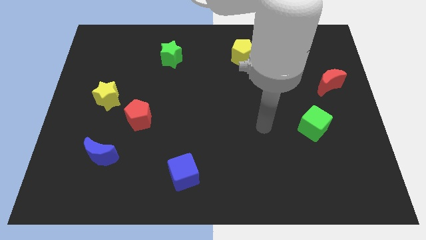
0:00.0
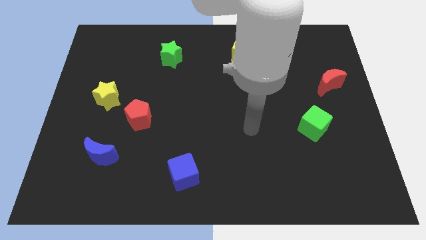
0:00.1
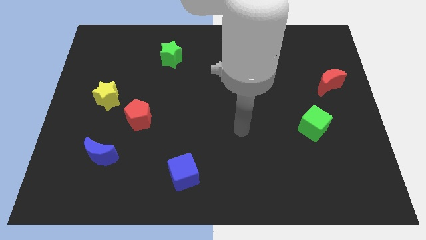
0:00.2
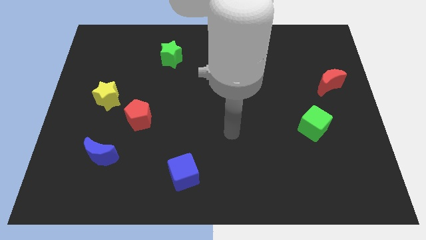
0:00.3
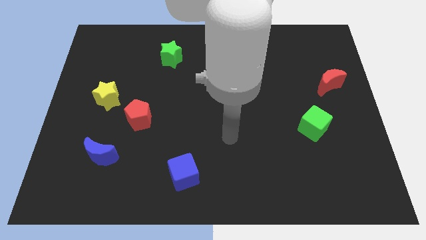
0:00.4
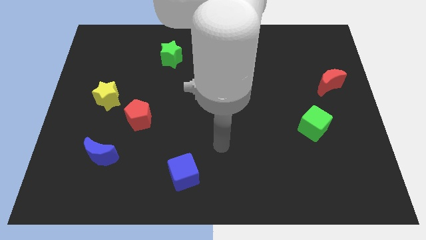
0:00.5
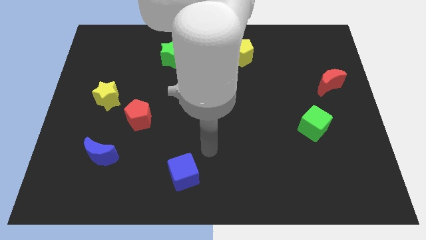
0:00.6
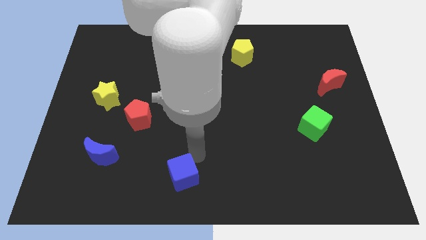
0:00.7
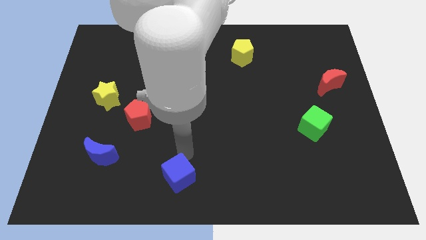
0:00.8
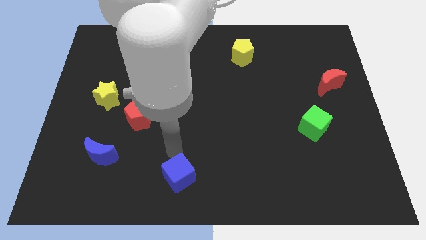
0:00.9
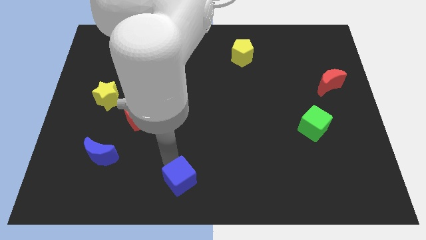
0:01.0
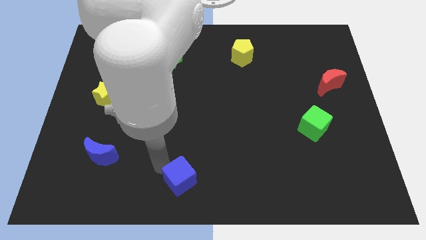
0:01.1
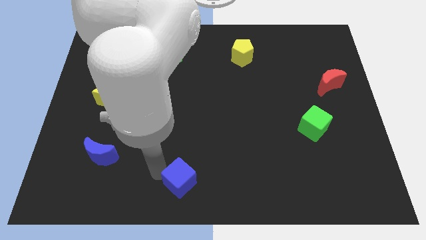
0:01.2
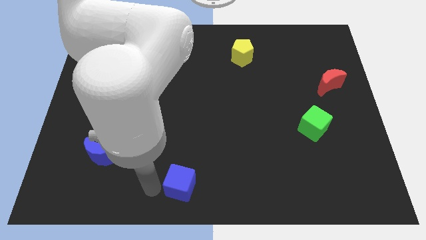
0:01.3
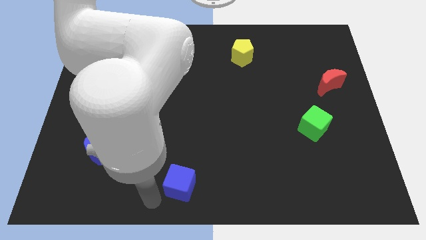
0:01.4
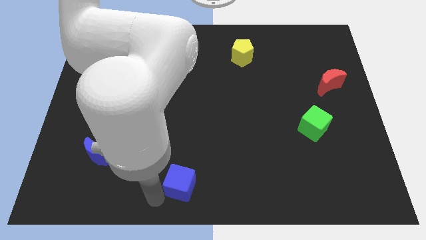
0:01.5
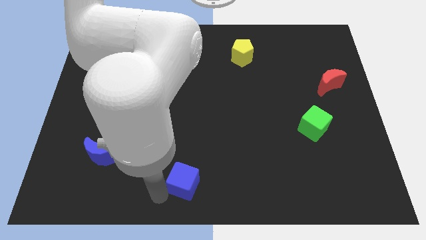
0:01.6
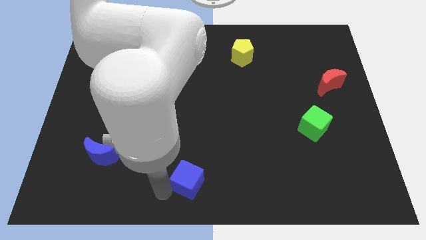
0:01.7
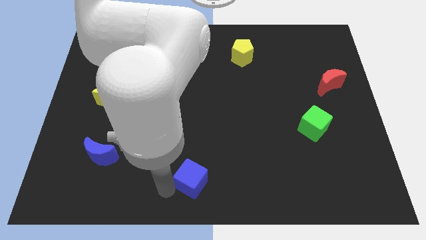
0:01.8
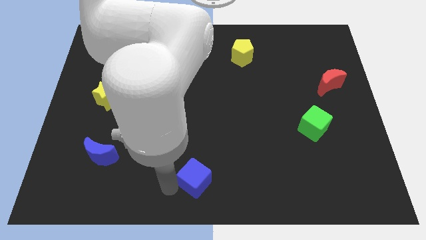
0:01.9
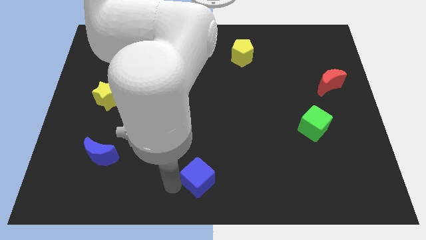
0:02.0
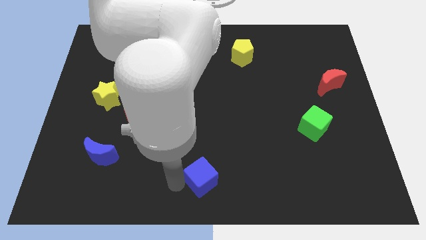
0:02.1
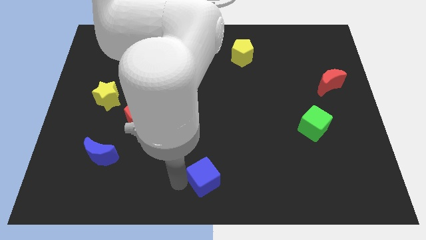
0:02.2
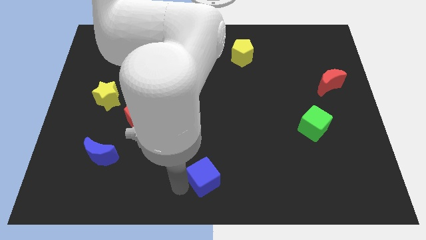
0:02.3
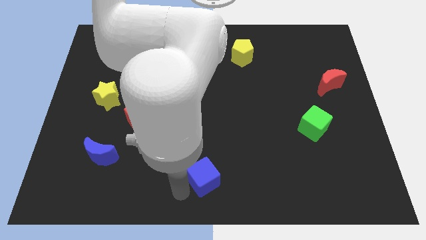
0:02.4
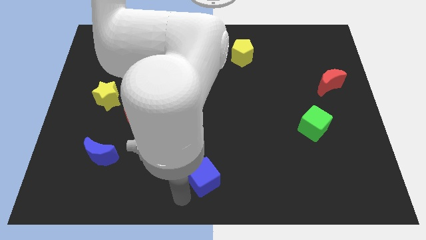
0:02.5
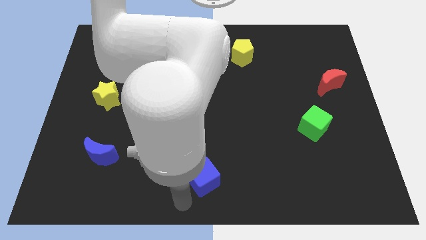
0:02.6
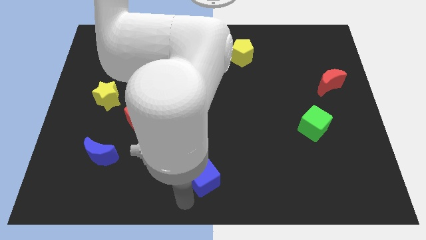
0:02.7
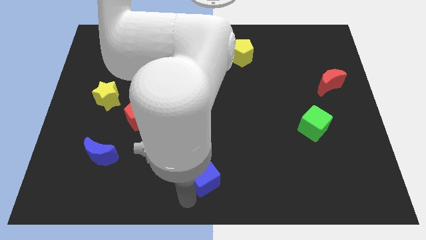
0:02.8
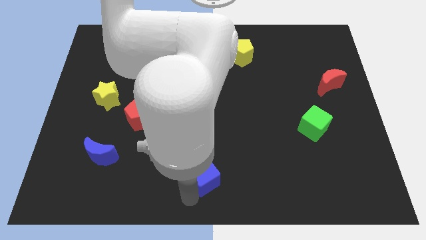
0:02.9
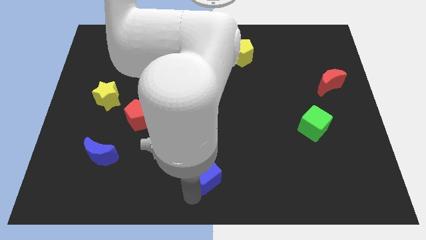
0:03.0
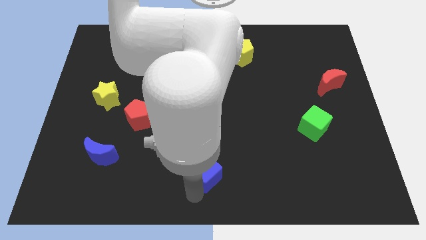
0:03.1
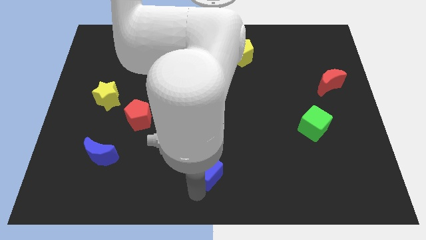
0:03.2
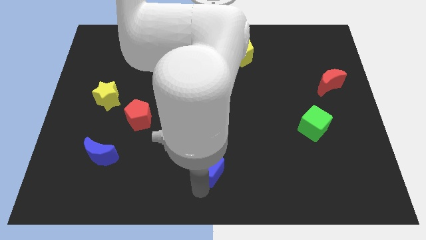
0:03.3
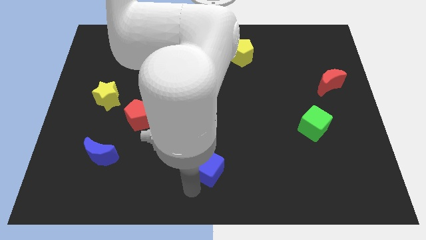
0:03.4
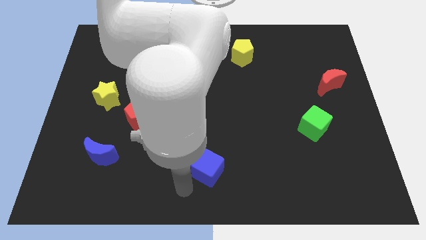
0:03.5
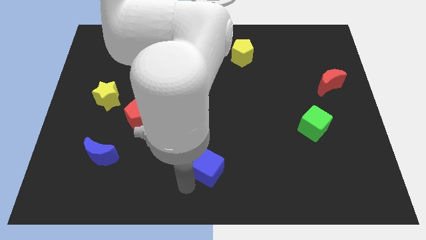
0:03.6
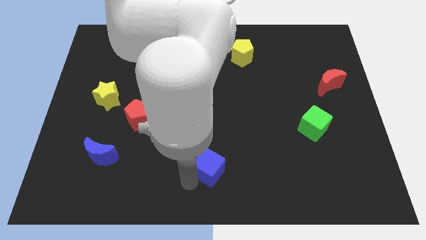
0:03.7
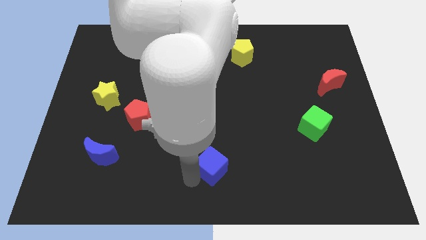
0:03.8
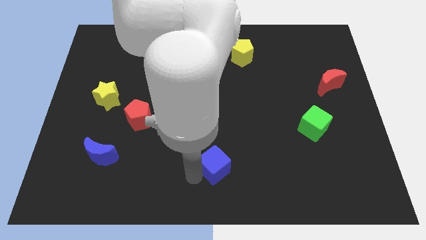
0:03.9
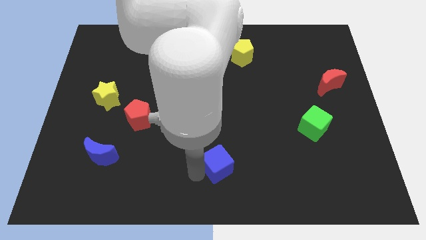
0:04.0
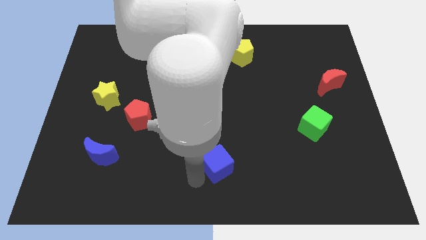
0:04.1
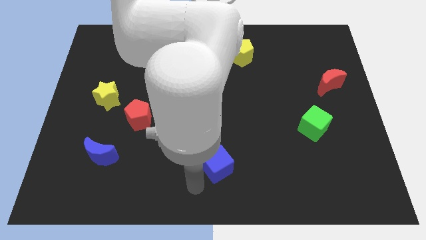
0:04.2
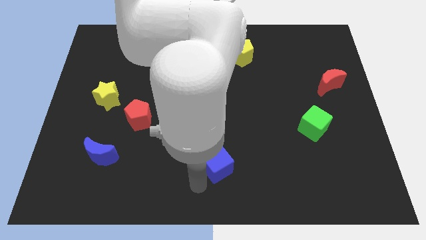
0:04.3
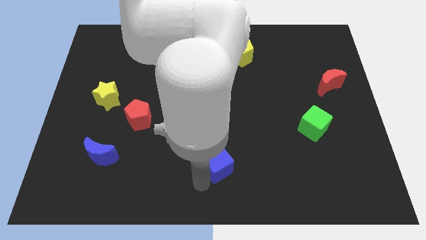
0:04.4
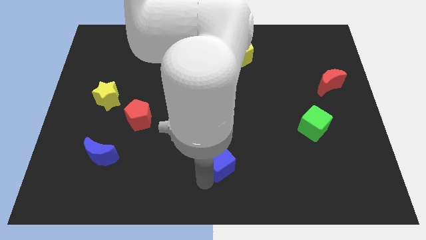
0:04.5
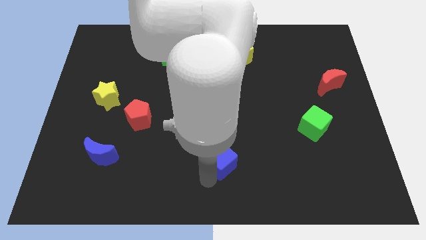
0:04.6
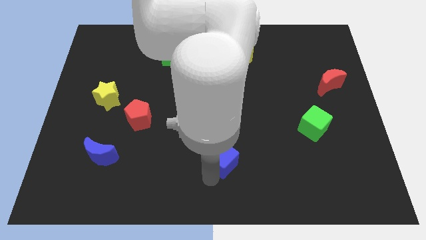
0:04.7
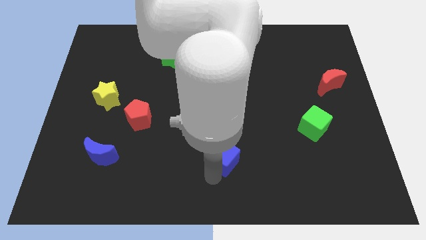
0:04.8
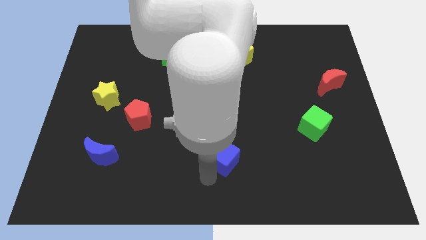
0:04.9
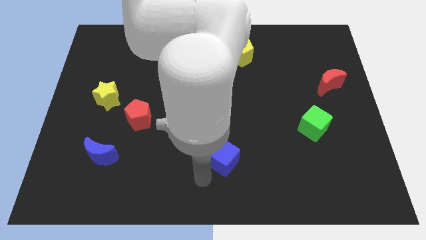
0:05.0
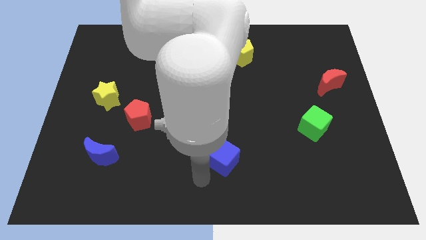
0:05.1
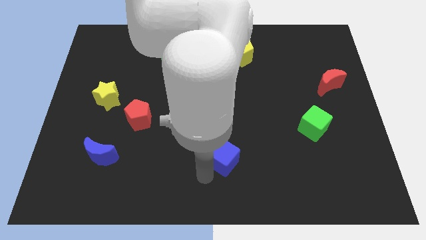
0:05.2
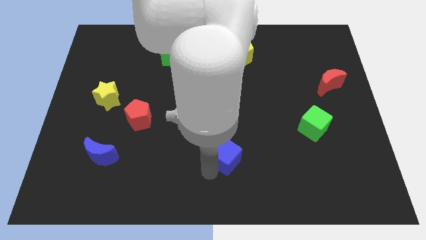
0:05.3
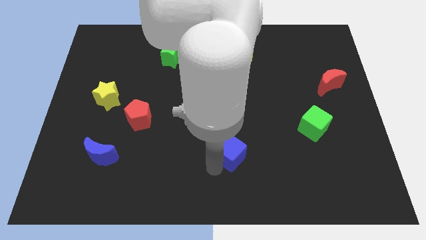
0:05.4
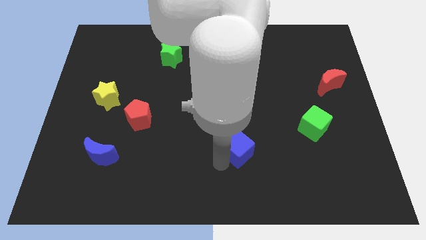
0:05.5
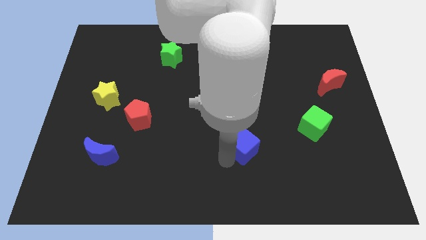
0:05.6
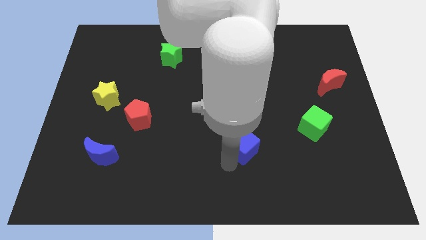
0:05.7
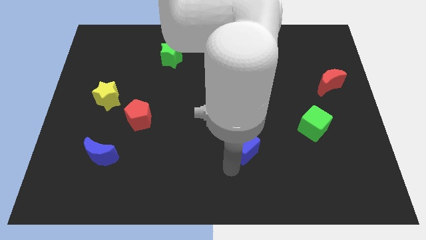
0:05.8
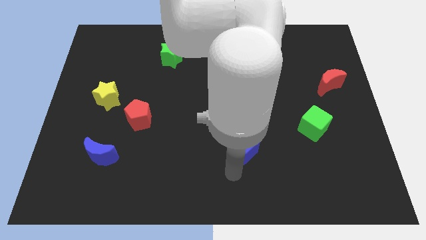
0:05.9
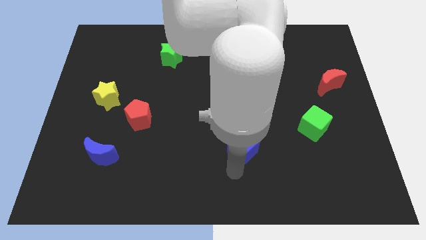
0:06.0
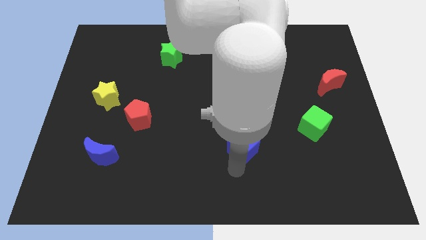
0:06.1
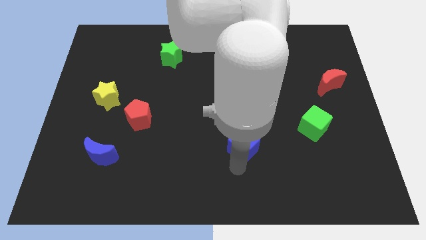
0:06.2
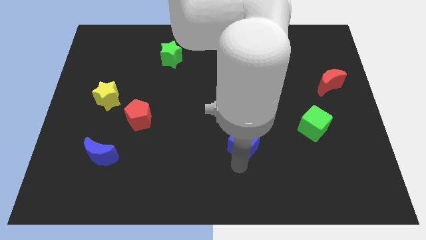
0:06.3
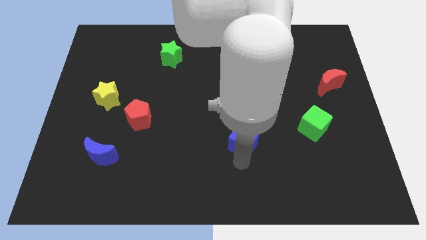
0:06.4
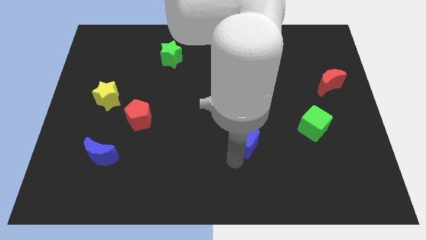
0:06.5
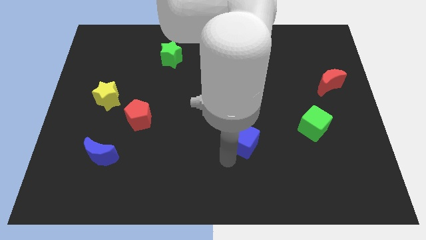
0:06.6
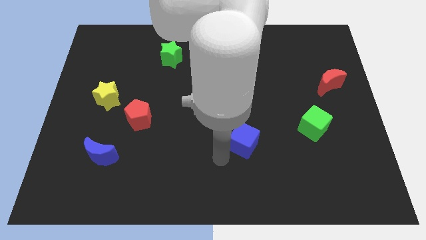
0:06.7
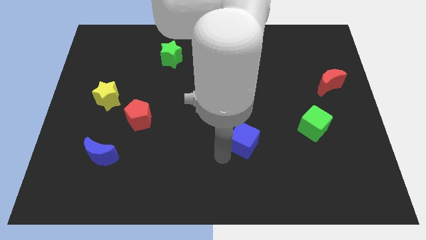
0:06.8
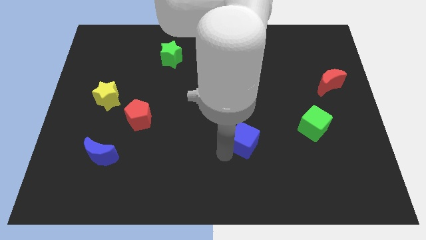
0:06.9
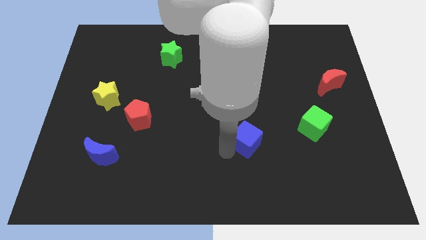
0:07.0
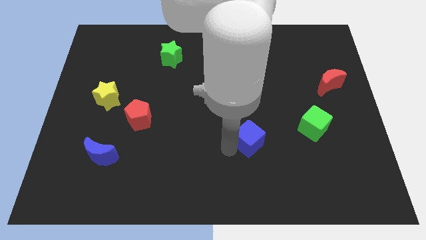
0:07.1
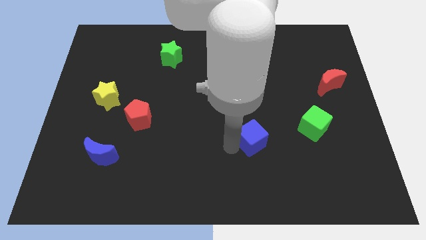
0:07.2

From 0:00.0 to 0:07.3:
push the blue cube left of the green cube
